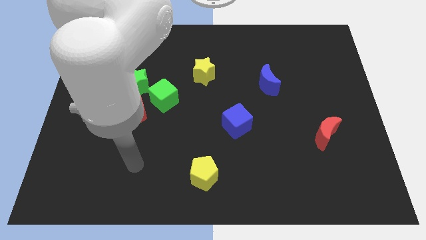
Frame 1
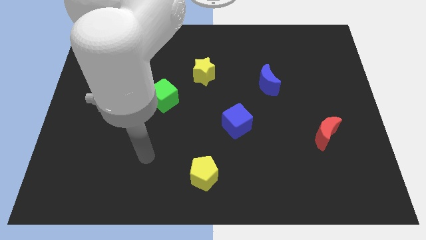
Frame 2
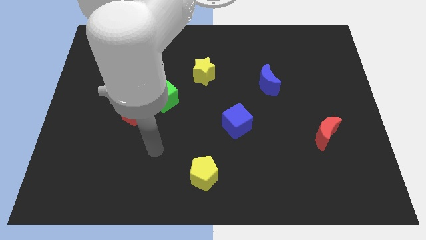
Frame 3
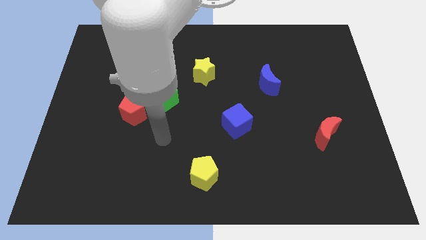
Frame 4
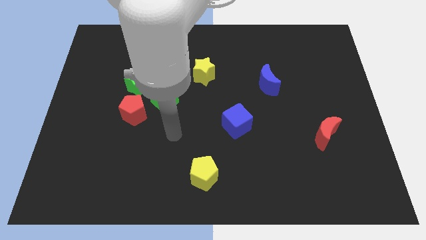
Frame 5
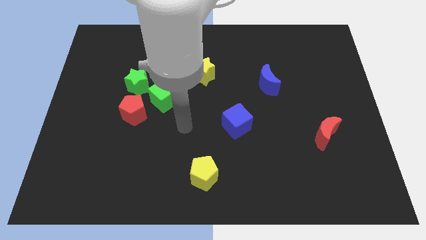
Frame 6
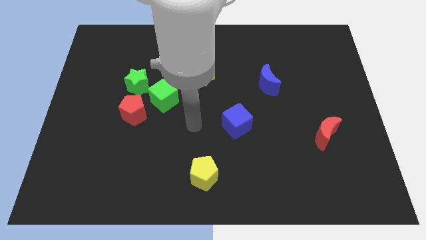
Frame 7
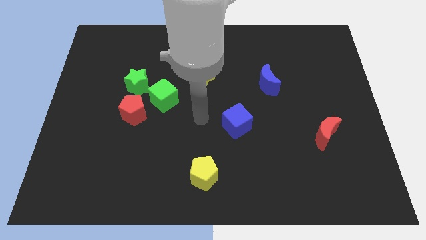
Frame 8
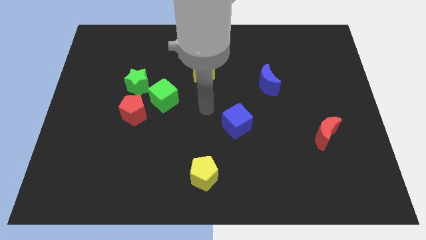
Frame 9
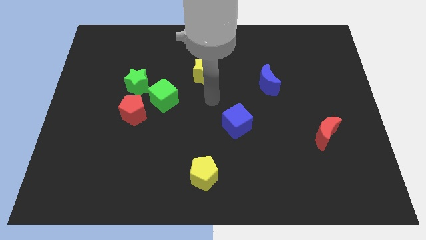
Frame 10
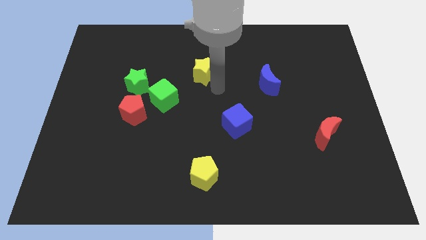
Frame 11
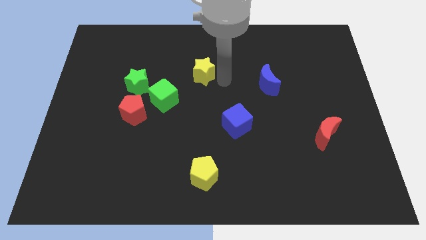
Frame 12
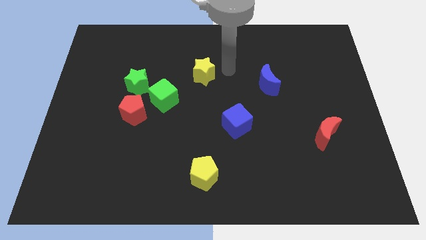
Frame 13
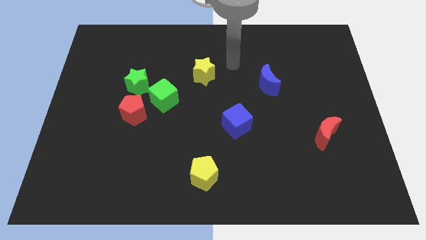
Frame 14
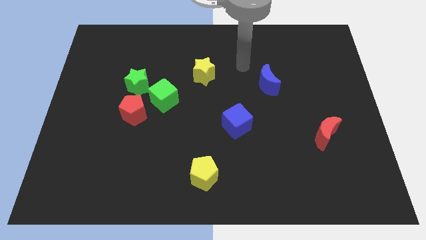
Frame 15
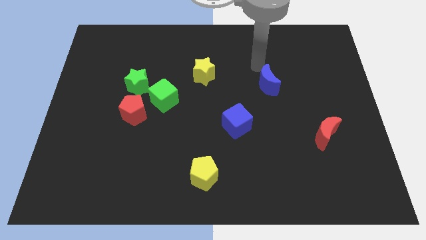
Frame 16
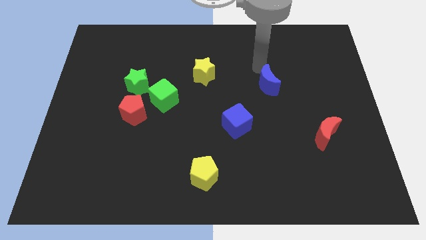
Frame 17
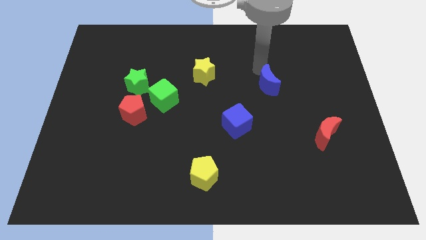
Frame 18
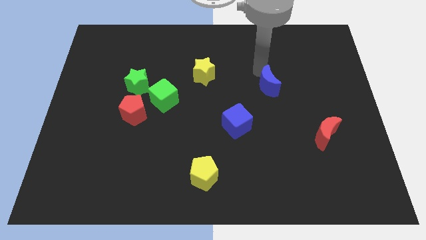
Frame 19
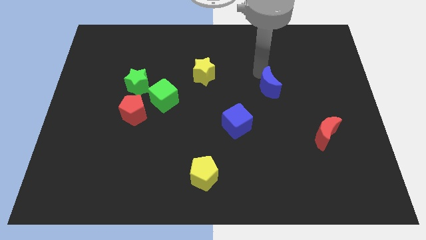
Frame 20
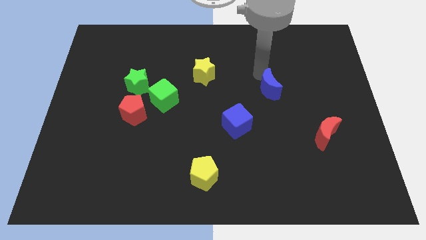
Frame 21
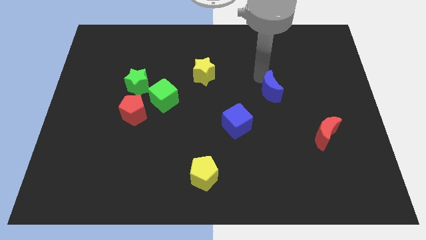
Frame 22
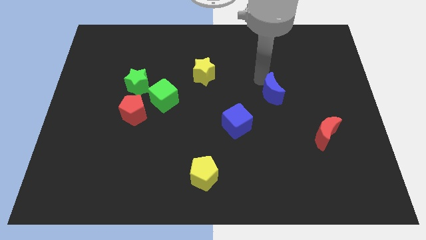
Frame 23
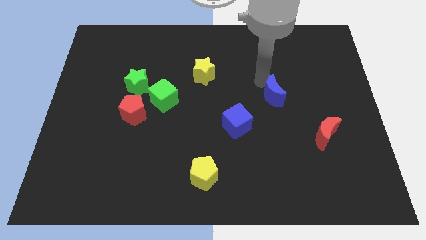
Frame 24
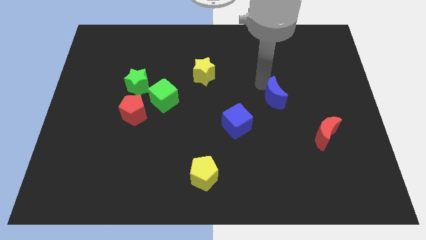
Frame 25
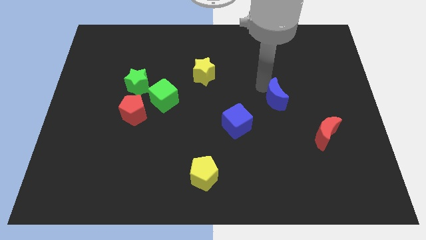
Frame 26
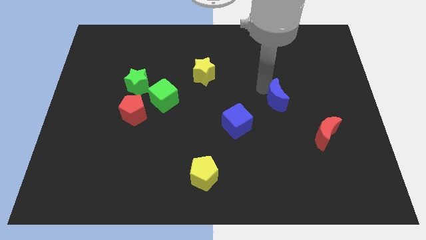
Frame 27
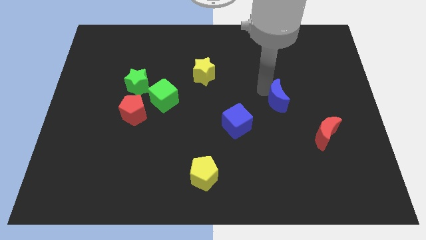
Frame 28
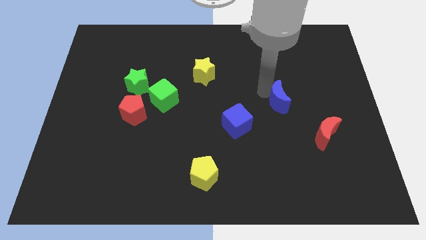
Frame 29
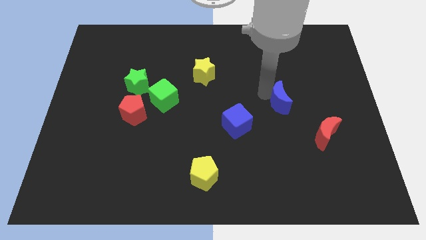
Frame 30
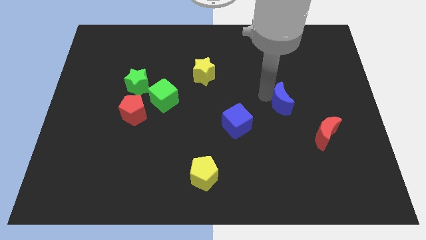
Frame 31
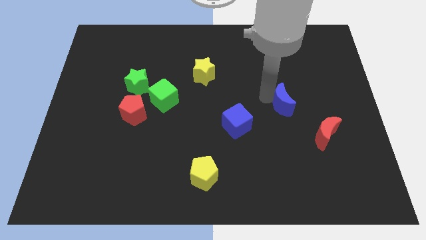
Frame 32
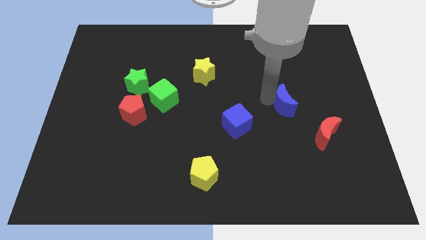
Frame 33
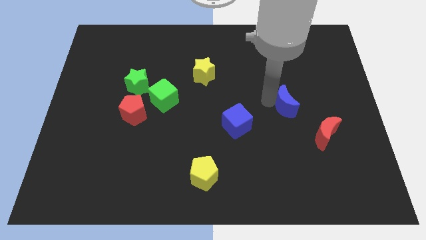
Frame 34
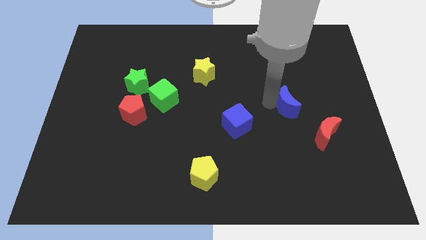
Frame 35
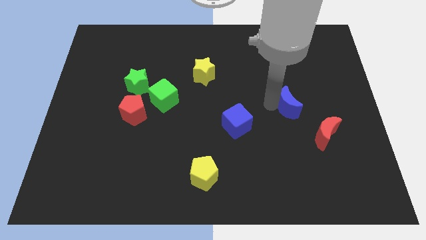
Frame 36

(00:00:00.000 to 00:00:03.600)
slightly move the blue moon downwards

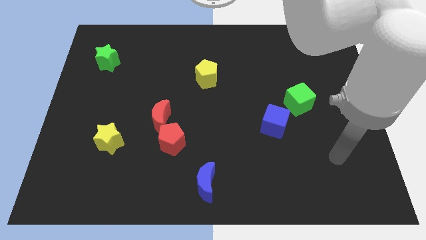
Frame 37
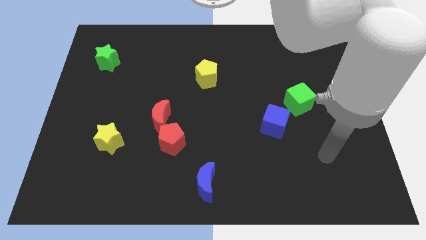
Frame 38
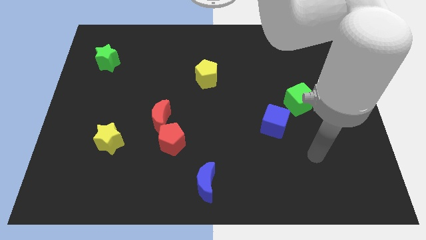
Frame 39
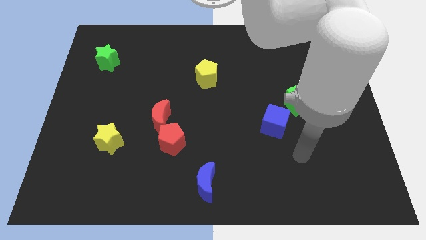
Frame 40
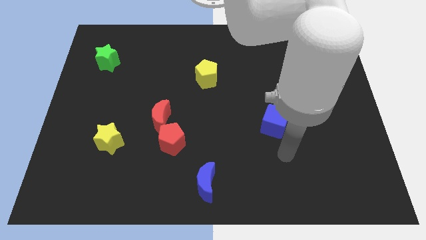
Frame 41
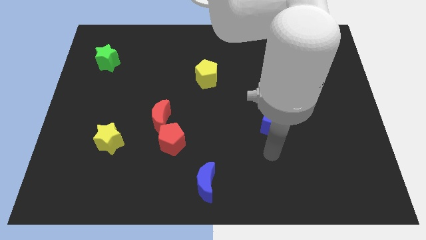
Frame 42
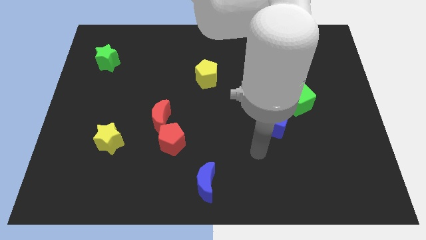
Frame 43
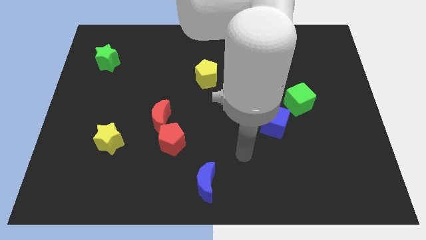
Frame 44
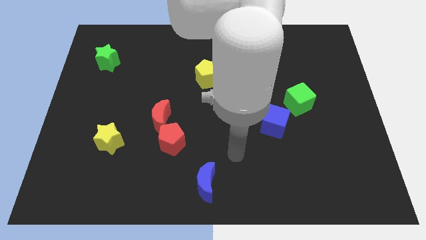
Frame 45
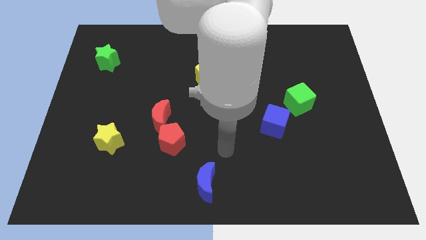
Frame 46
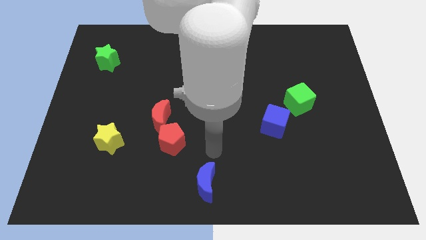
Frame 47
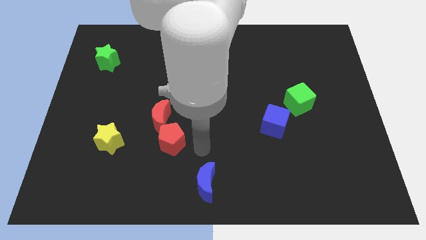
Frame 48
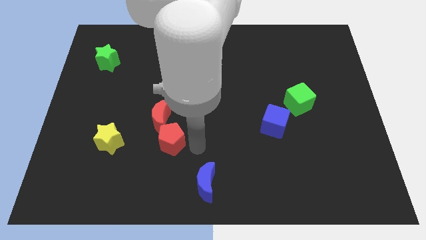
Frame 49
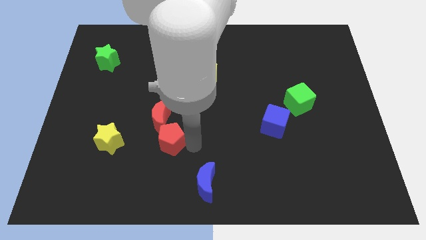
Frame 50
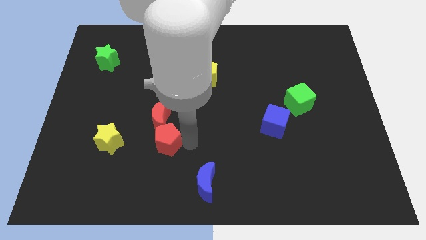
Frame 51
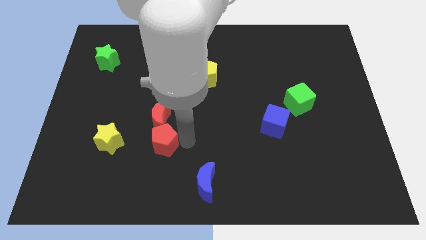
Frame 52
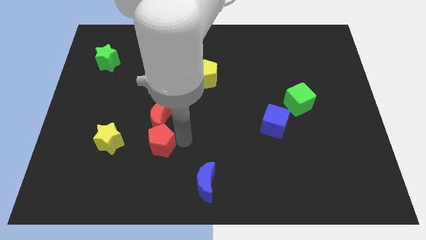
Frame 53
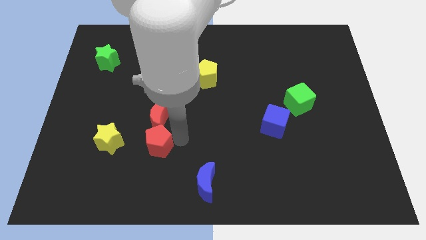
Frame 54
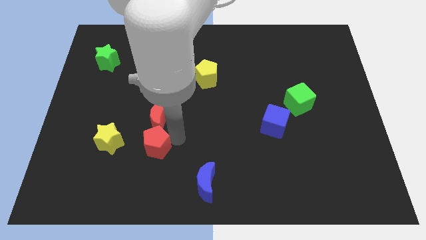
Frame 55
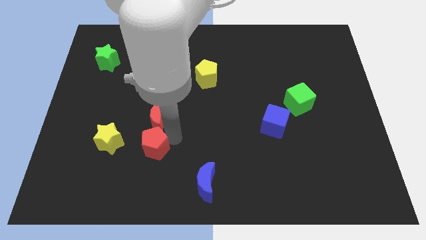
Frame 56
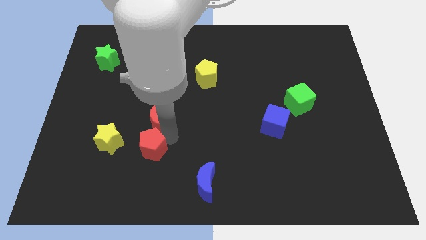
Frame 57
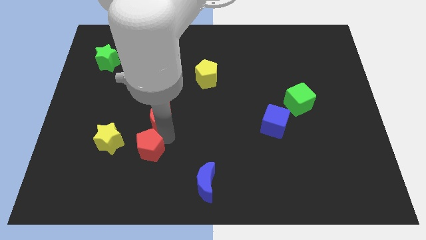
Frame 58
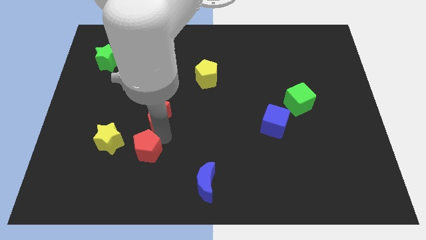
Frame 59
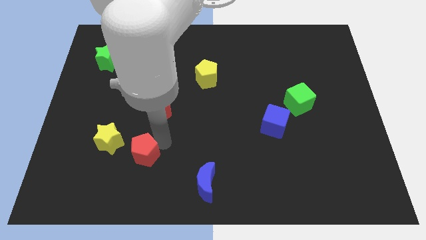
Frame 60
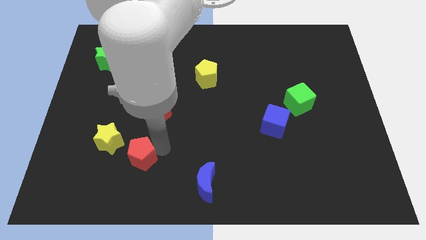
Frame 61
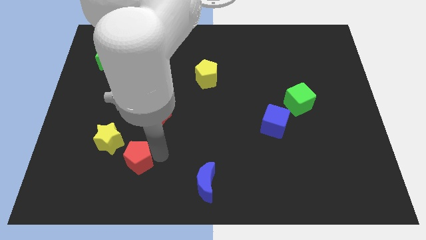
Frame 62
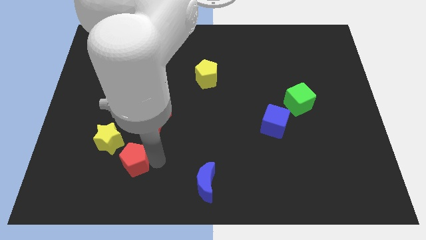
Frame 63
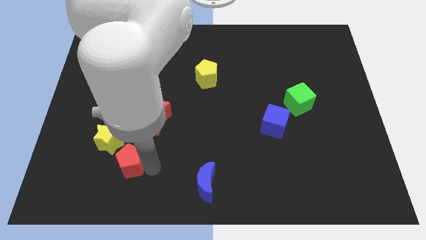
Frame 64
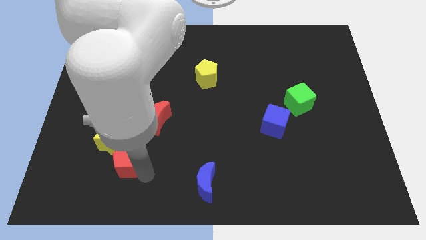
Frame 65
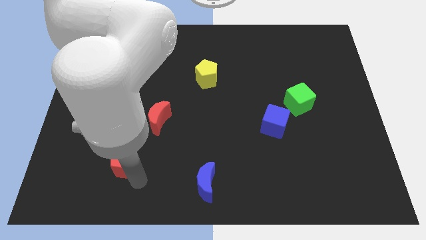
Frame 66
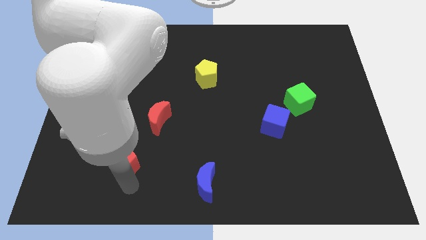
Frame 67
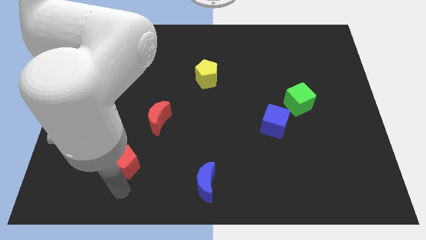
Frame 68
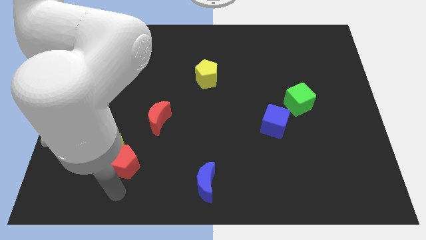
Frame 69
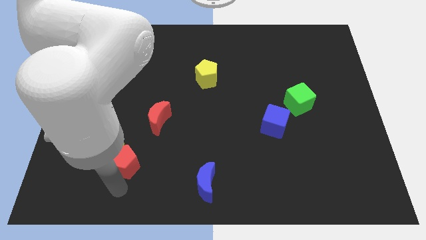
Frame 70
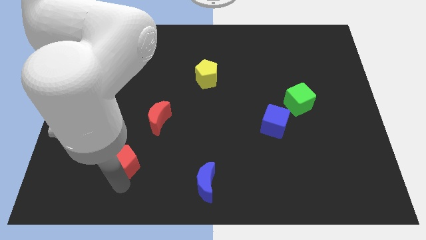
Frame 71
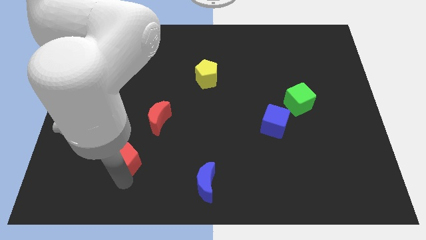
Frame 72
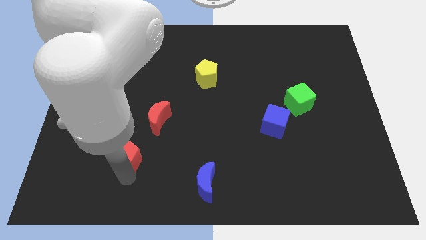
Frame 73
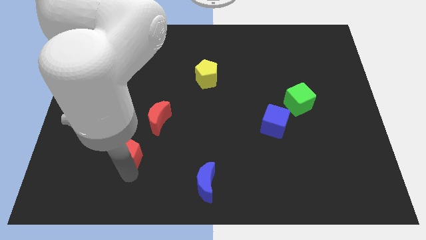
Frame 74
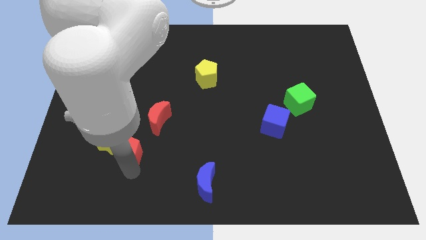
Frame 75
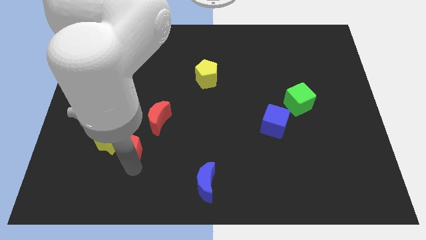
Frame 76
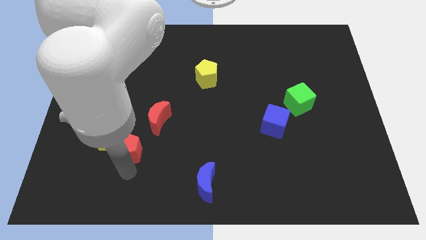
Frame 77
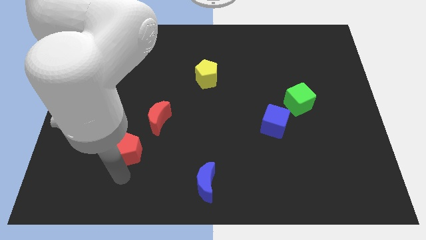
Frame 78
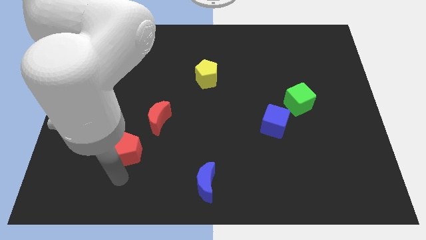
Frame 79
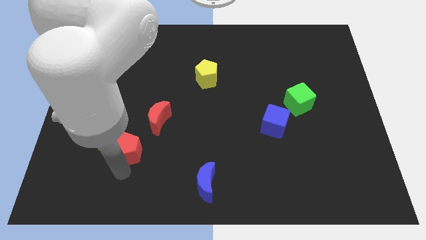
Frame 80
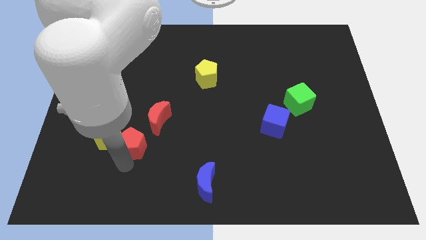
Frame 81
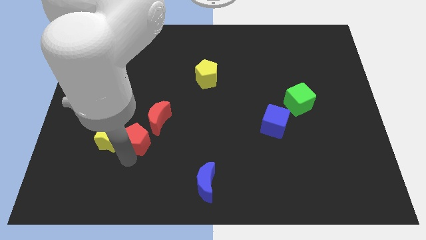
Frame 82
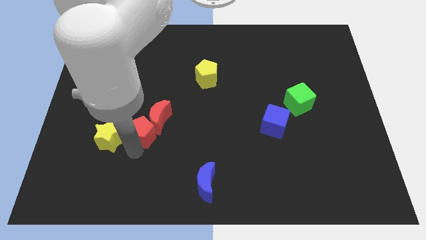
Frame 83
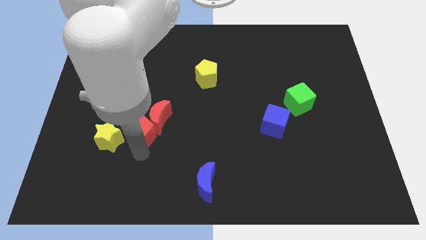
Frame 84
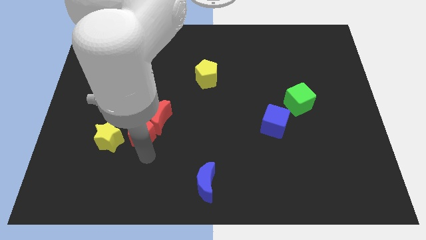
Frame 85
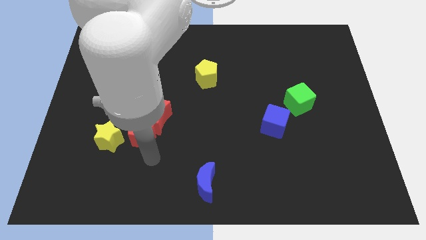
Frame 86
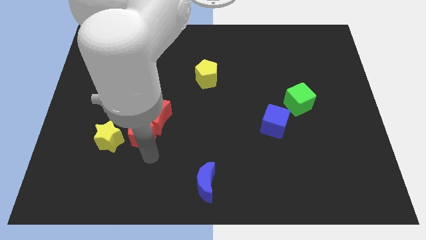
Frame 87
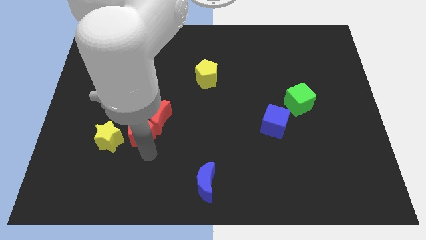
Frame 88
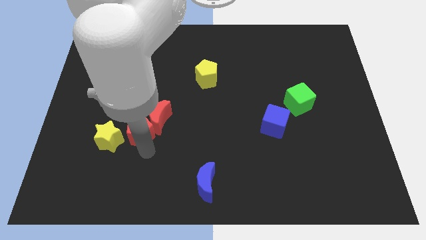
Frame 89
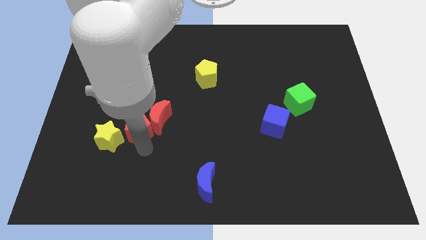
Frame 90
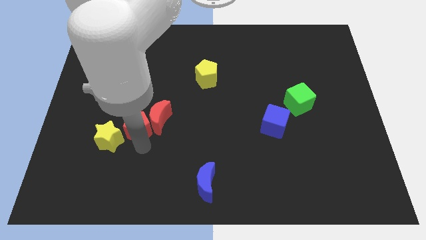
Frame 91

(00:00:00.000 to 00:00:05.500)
slide the red pentagon a little bit upwards and then to the left
